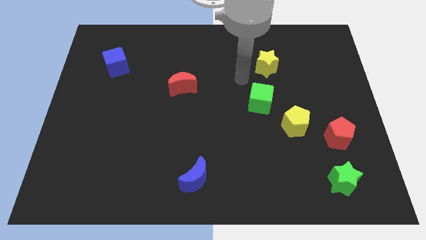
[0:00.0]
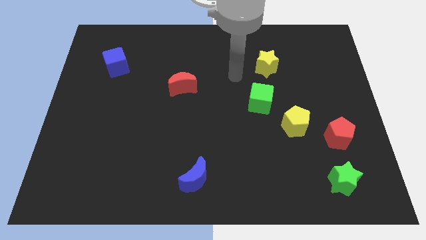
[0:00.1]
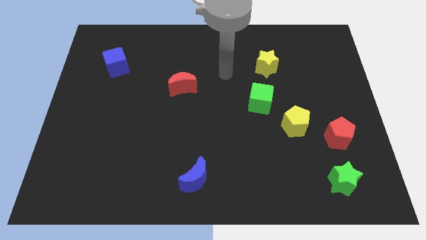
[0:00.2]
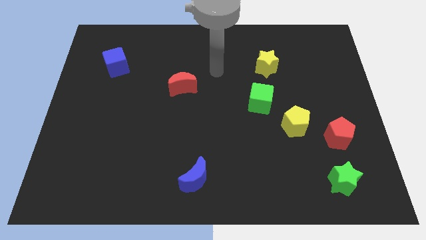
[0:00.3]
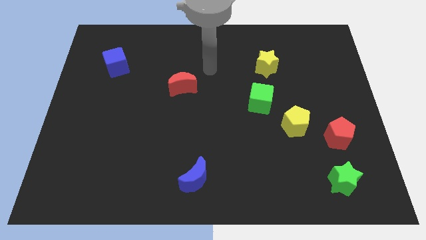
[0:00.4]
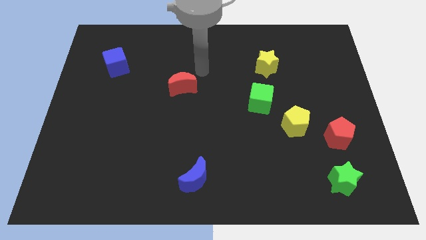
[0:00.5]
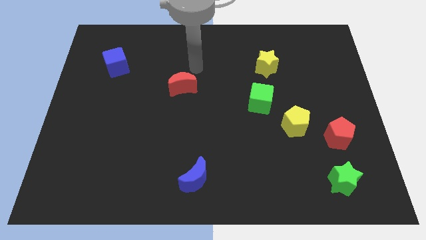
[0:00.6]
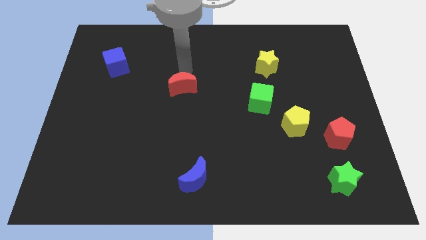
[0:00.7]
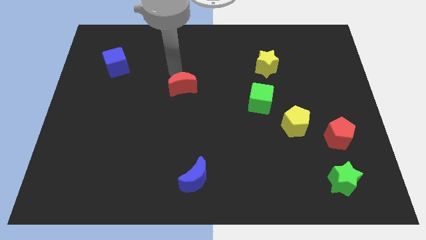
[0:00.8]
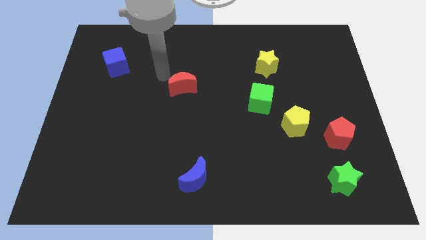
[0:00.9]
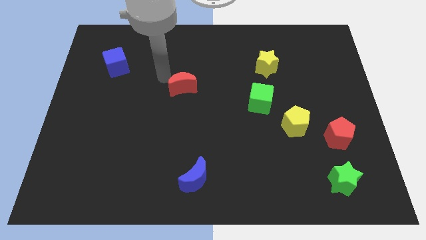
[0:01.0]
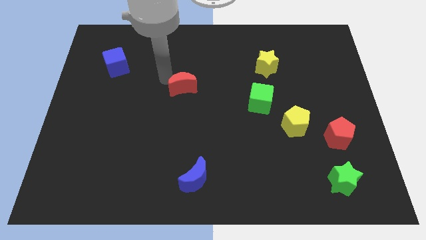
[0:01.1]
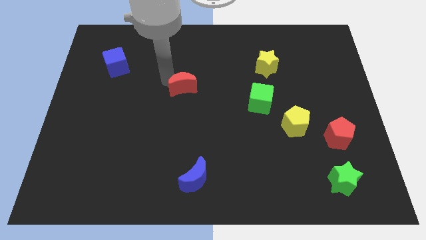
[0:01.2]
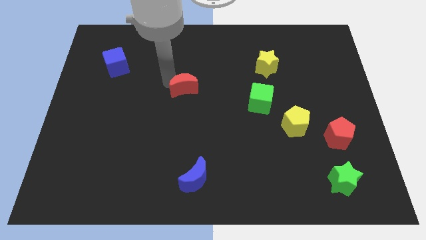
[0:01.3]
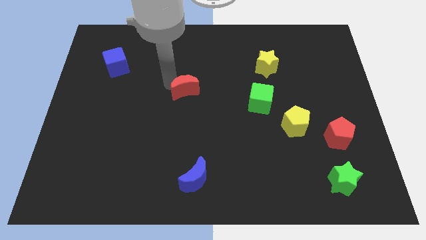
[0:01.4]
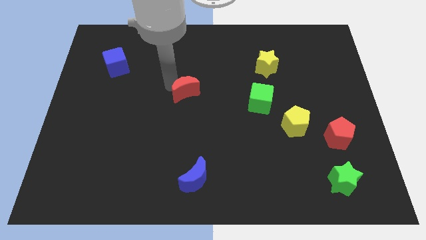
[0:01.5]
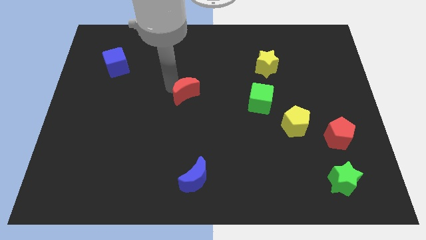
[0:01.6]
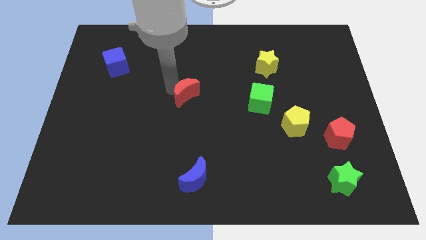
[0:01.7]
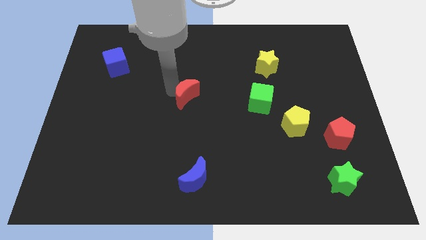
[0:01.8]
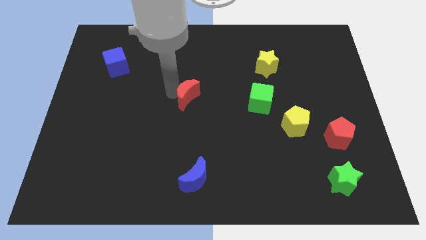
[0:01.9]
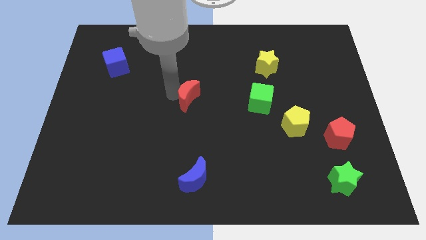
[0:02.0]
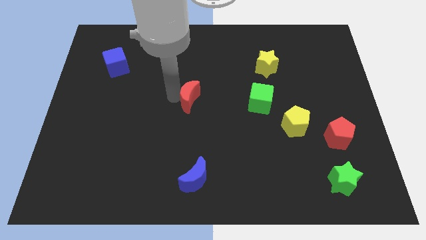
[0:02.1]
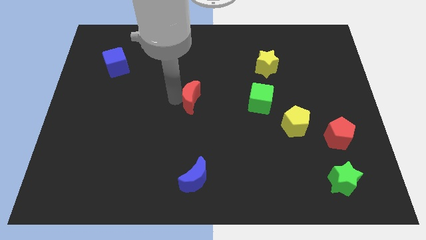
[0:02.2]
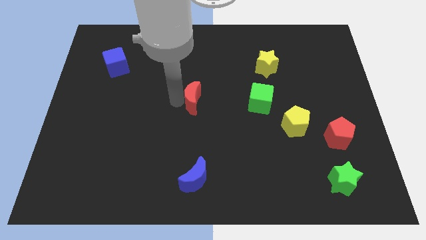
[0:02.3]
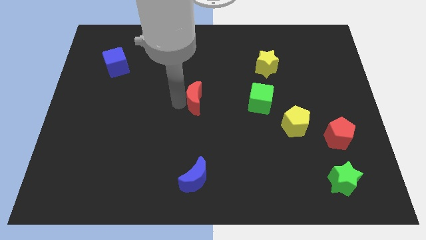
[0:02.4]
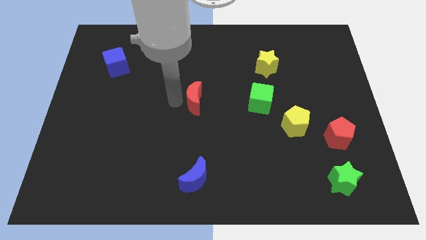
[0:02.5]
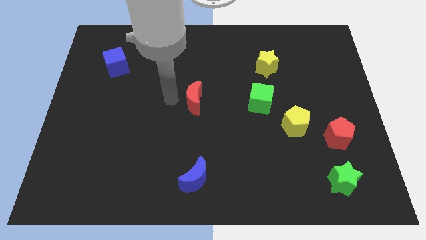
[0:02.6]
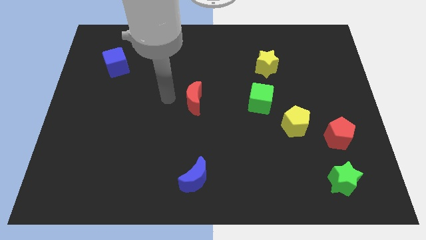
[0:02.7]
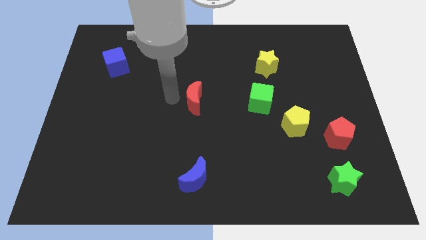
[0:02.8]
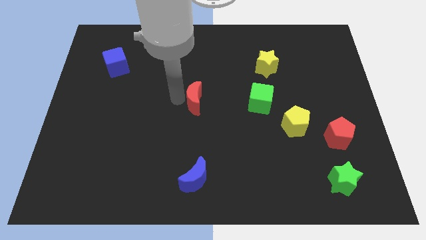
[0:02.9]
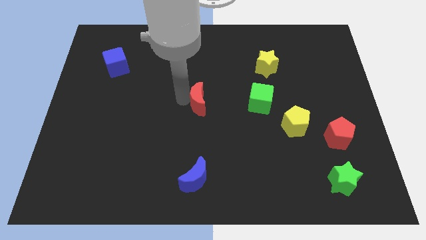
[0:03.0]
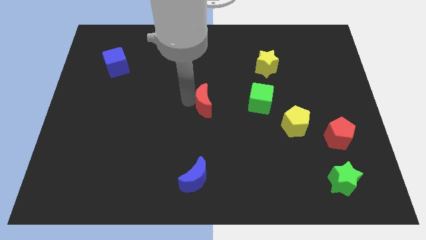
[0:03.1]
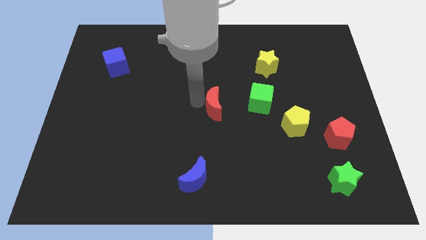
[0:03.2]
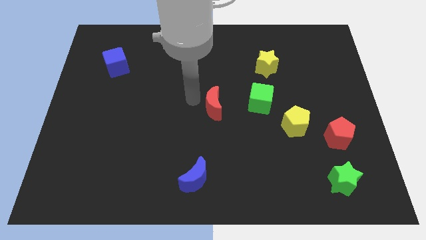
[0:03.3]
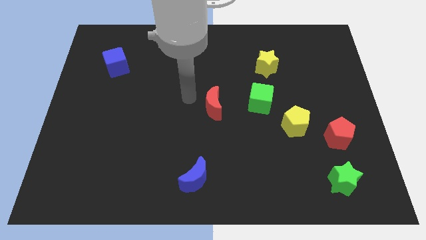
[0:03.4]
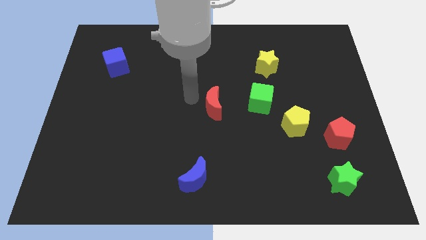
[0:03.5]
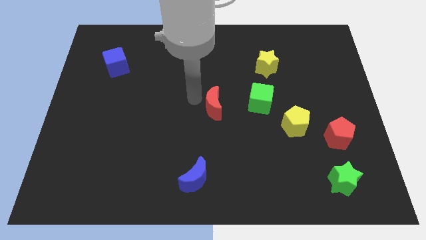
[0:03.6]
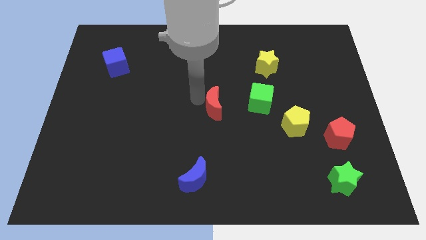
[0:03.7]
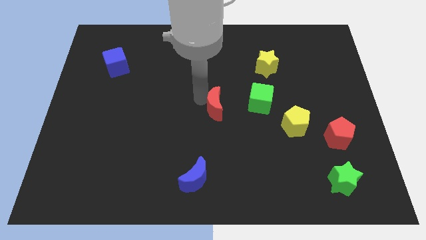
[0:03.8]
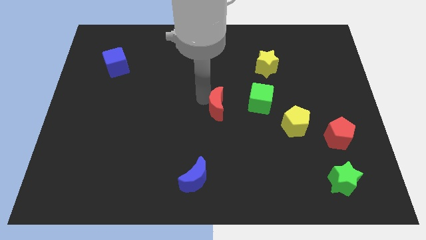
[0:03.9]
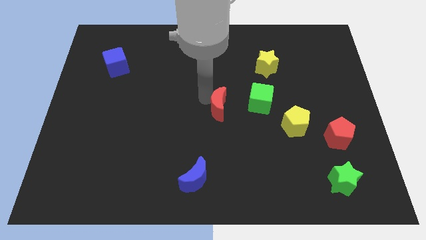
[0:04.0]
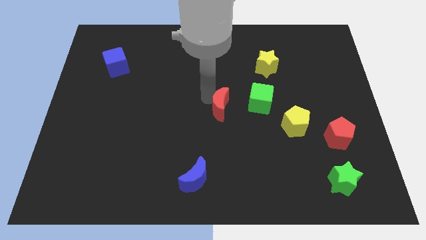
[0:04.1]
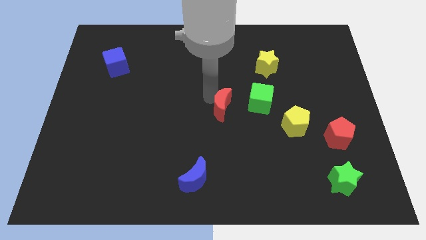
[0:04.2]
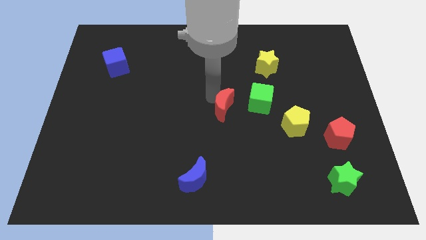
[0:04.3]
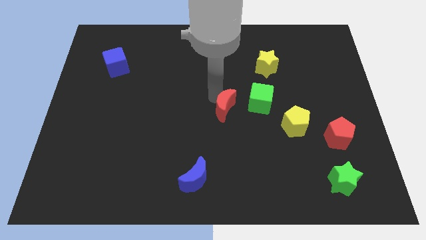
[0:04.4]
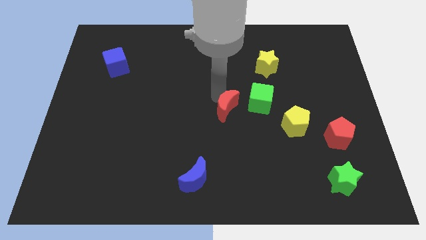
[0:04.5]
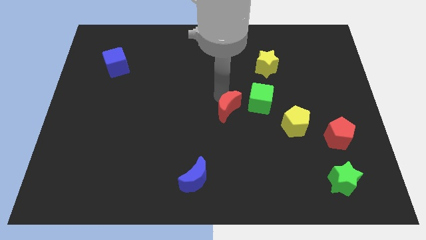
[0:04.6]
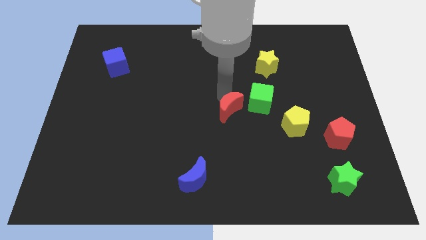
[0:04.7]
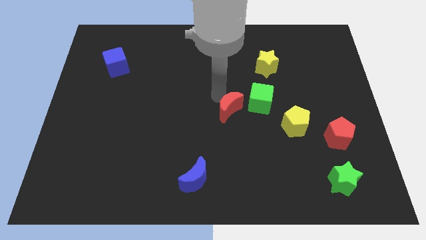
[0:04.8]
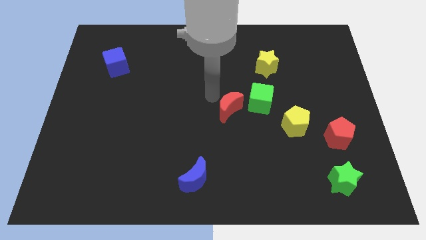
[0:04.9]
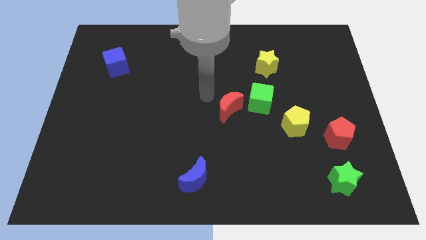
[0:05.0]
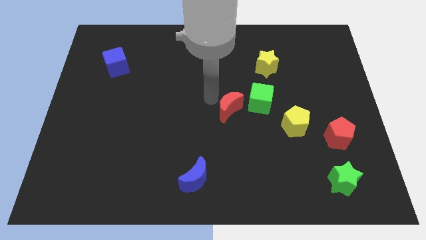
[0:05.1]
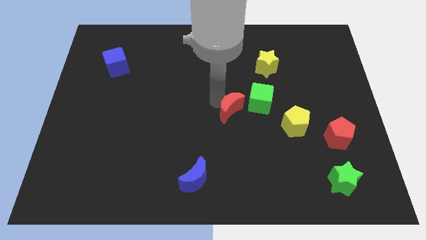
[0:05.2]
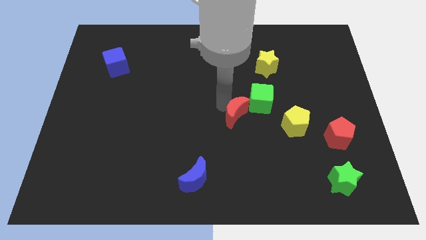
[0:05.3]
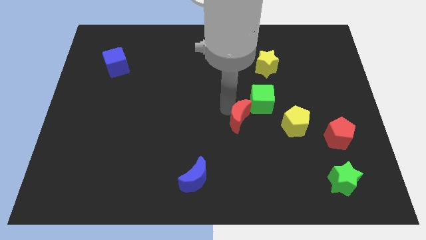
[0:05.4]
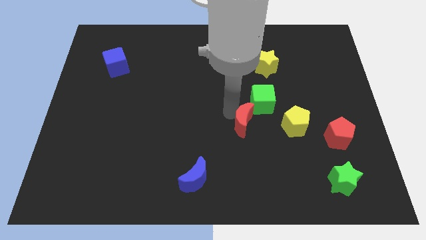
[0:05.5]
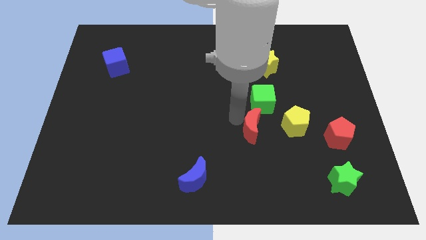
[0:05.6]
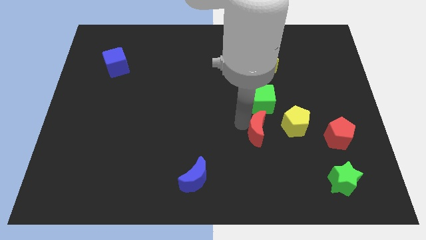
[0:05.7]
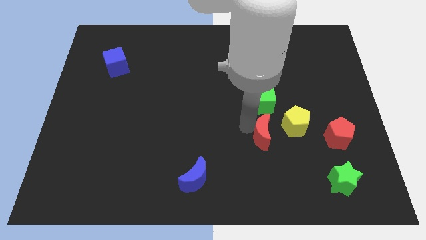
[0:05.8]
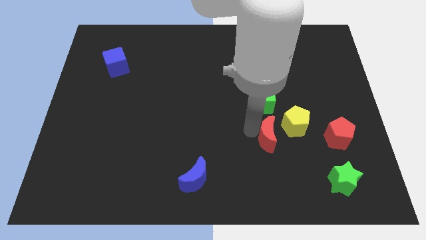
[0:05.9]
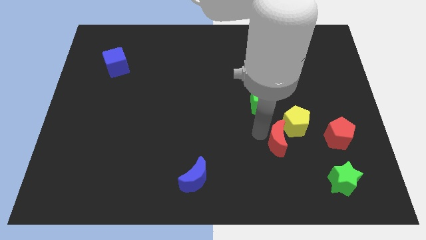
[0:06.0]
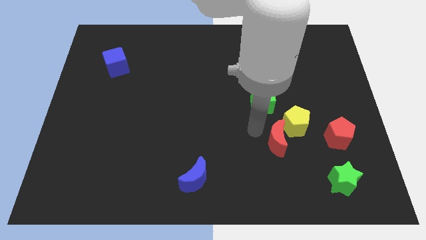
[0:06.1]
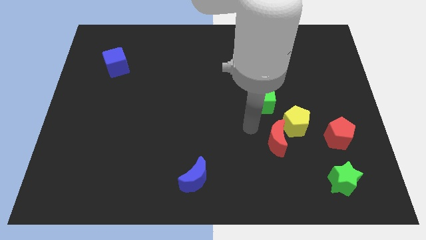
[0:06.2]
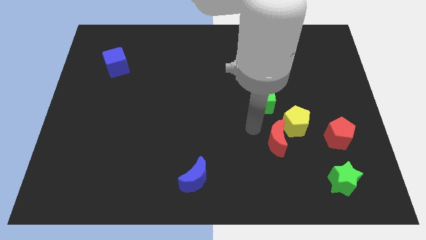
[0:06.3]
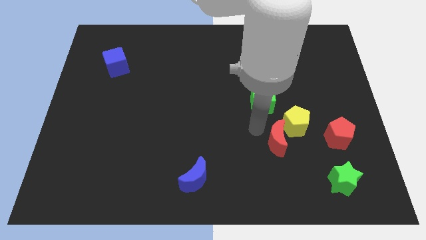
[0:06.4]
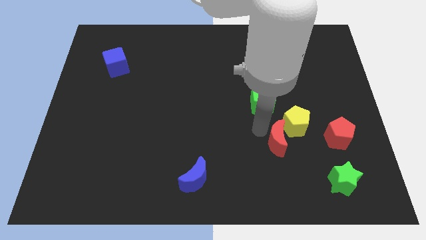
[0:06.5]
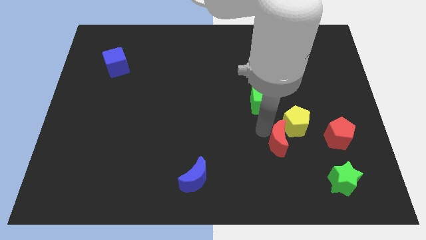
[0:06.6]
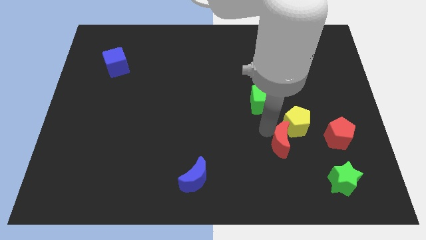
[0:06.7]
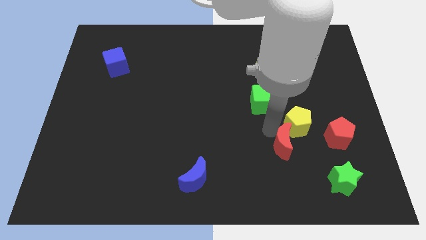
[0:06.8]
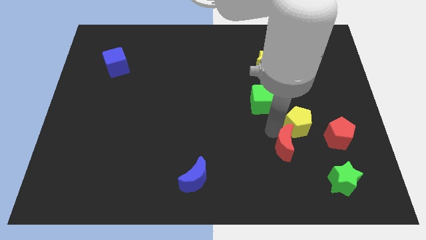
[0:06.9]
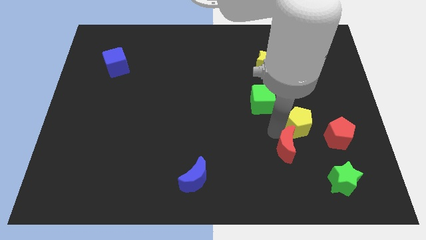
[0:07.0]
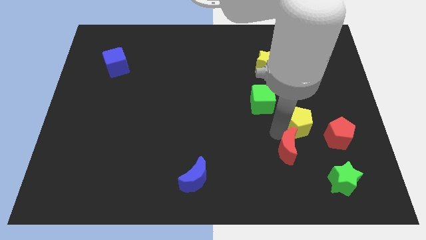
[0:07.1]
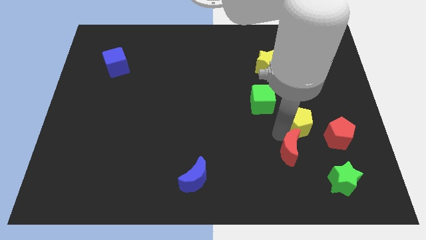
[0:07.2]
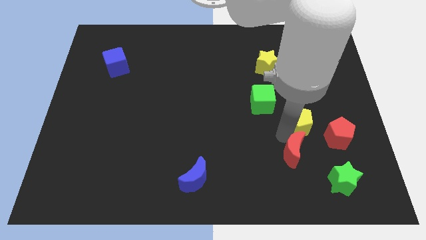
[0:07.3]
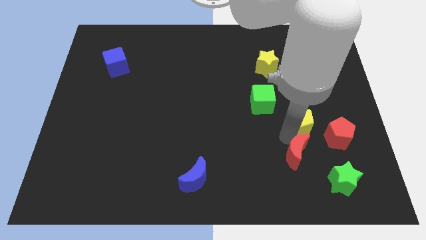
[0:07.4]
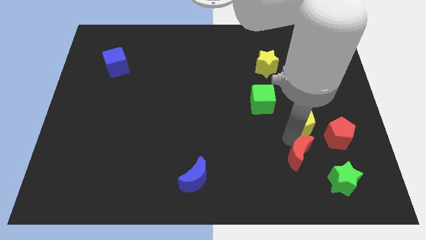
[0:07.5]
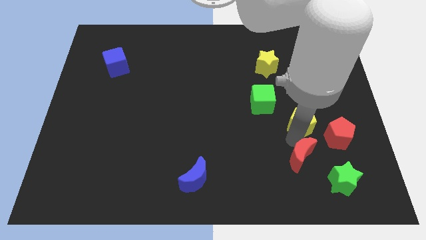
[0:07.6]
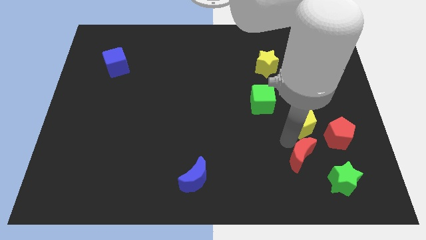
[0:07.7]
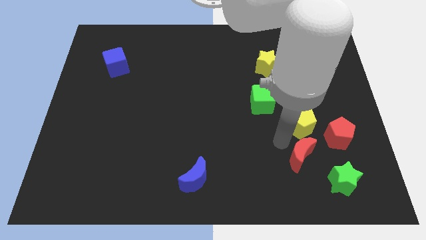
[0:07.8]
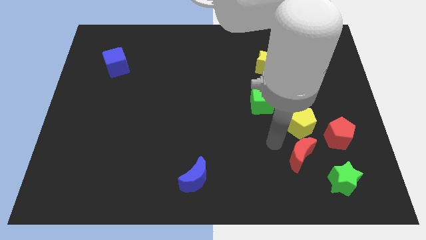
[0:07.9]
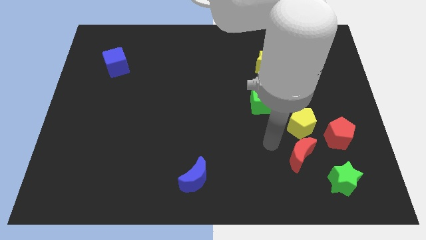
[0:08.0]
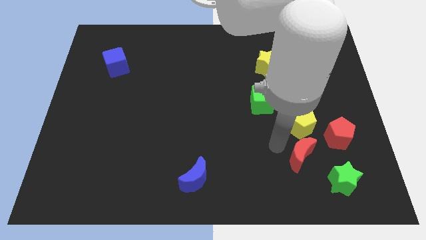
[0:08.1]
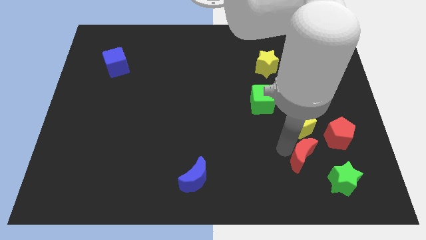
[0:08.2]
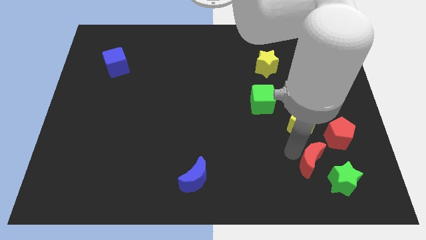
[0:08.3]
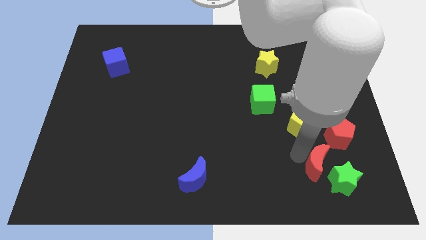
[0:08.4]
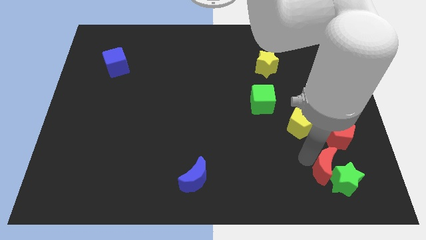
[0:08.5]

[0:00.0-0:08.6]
put the red moon to the green star
